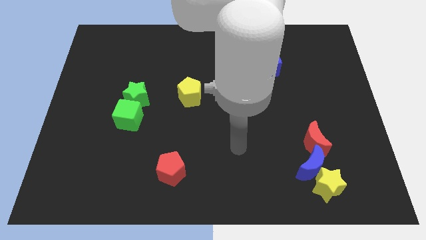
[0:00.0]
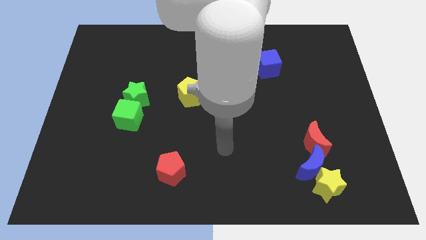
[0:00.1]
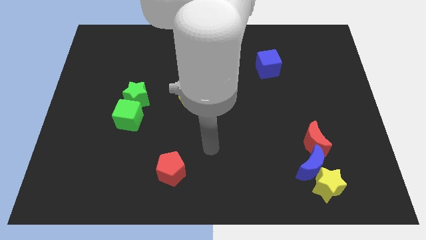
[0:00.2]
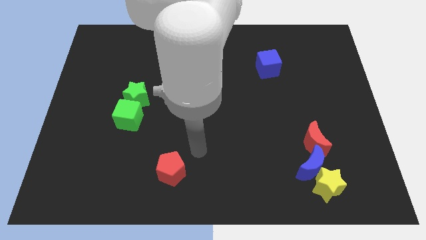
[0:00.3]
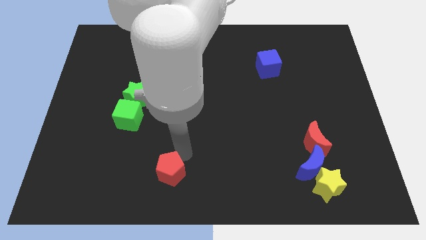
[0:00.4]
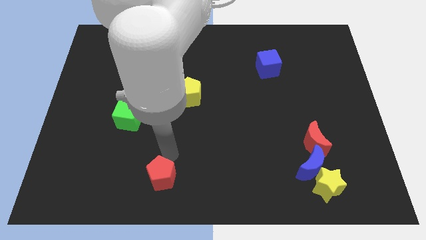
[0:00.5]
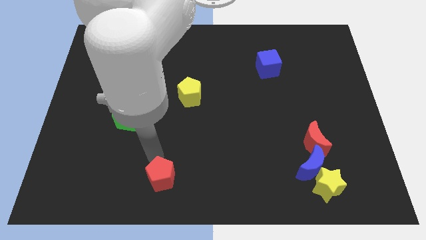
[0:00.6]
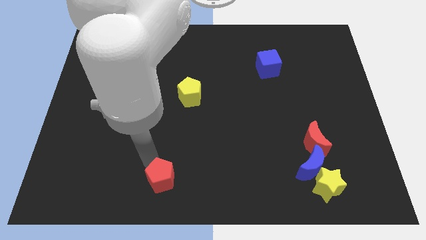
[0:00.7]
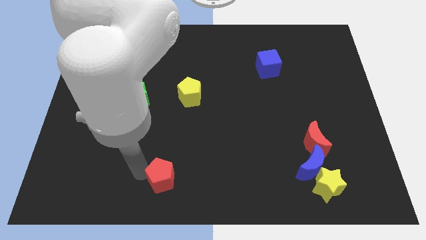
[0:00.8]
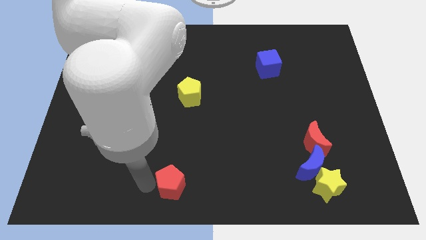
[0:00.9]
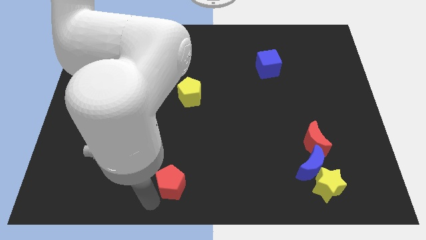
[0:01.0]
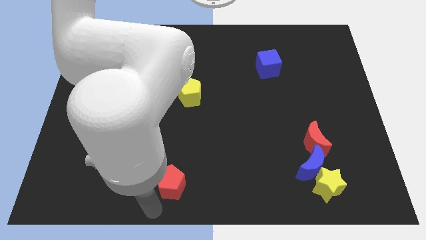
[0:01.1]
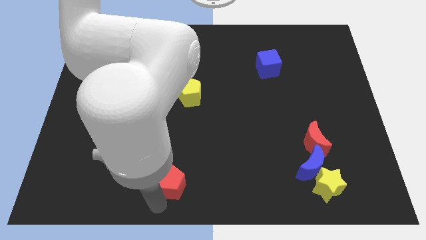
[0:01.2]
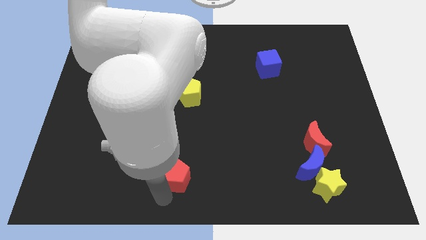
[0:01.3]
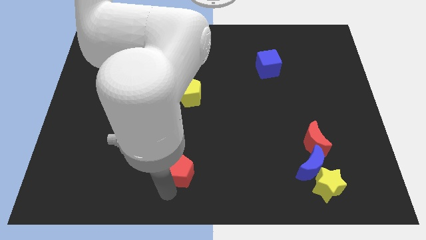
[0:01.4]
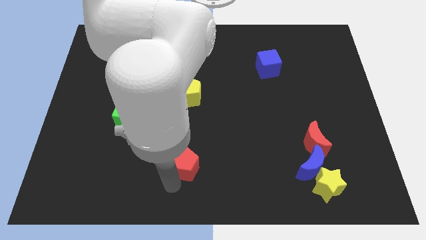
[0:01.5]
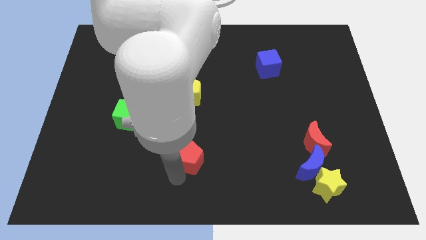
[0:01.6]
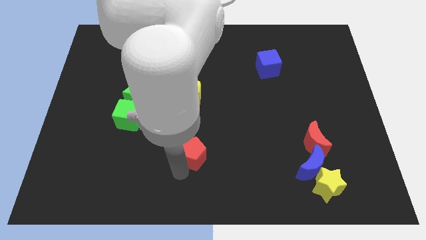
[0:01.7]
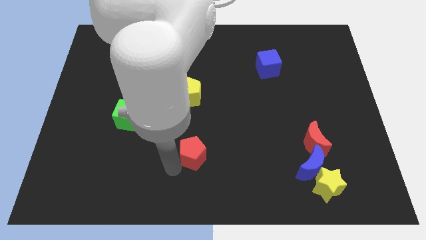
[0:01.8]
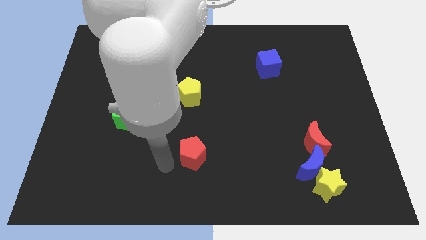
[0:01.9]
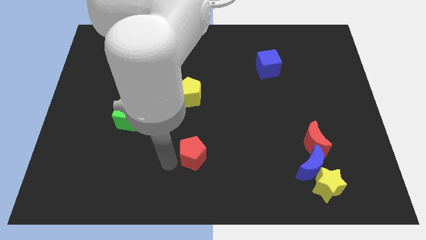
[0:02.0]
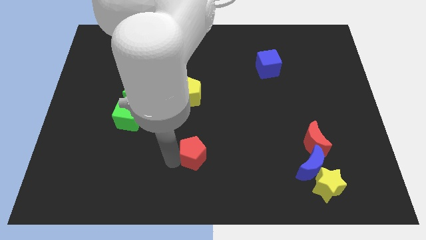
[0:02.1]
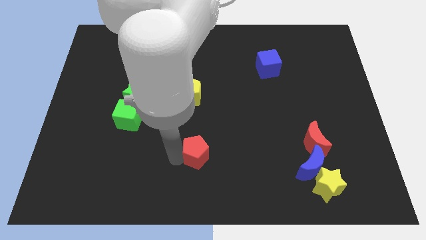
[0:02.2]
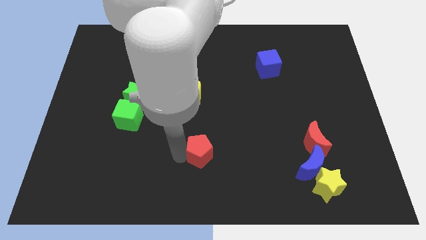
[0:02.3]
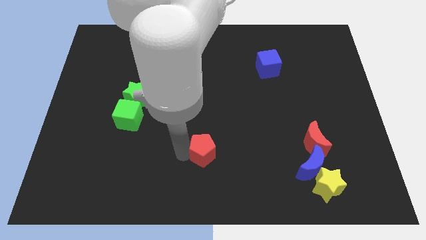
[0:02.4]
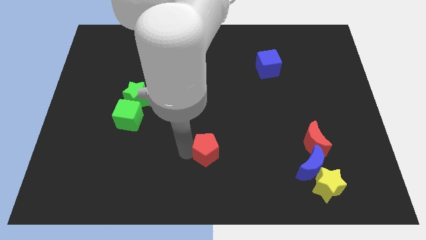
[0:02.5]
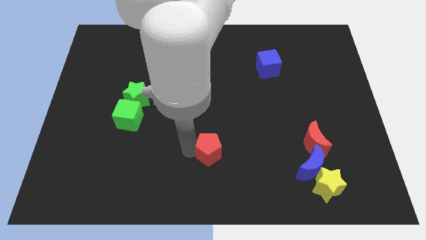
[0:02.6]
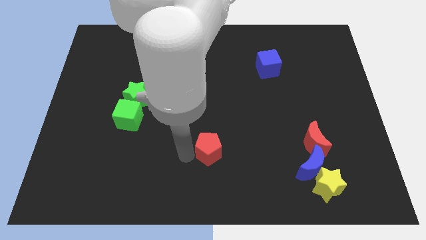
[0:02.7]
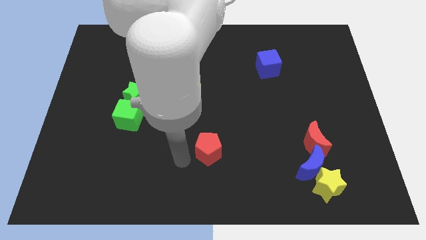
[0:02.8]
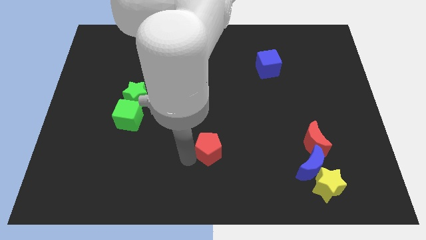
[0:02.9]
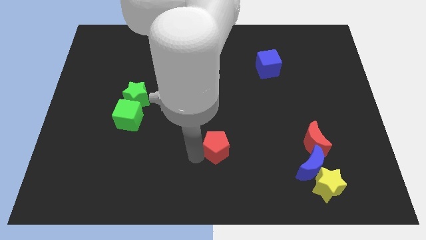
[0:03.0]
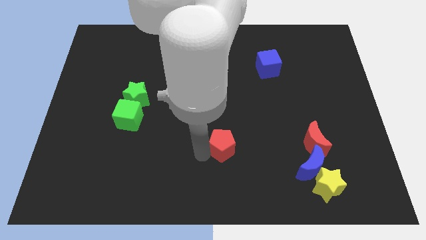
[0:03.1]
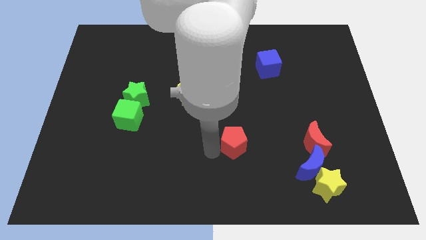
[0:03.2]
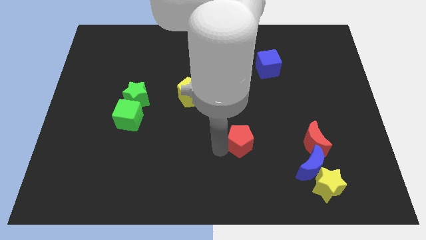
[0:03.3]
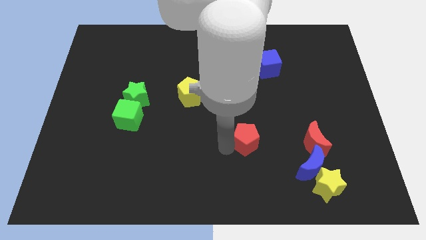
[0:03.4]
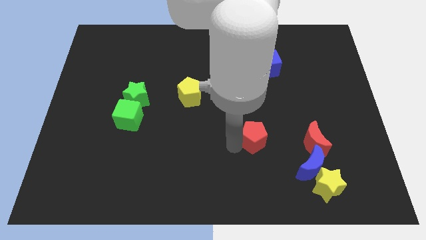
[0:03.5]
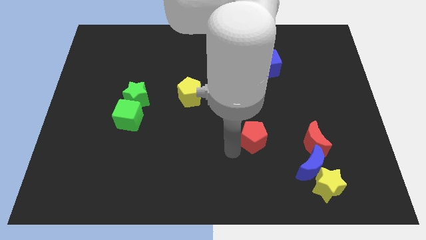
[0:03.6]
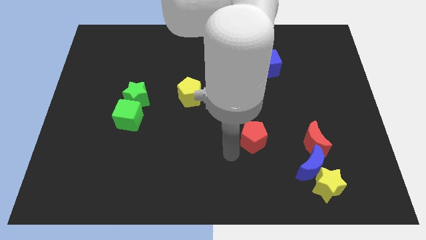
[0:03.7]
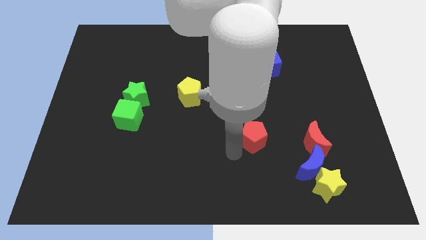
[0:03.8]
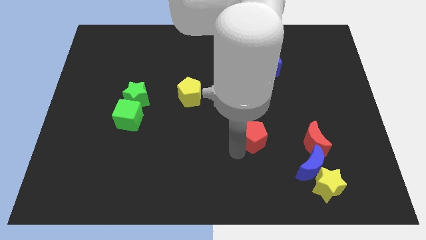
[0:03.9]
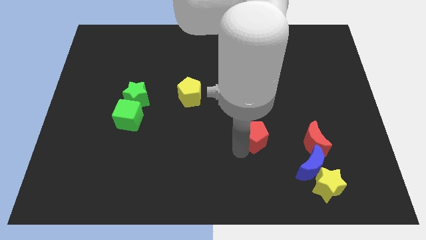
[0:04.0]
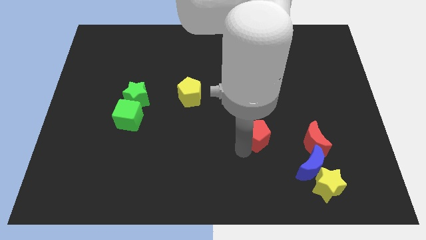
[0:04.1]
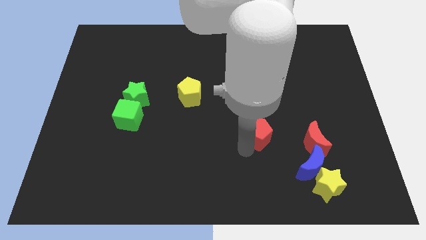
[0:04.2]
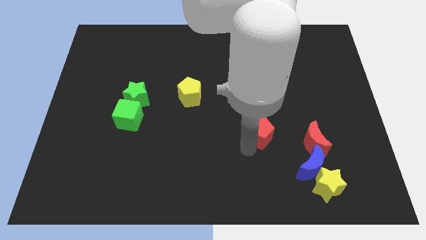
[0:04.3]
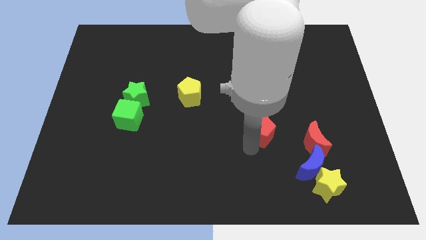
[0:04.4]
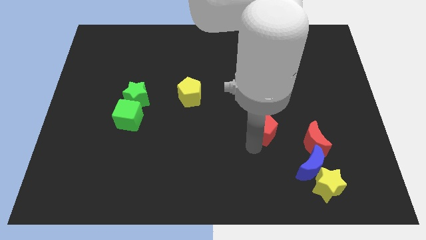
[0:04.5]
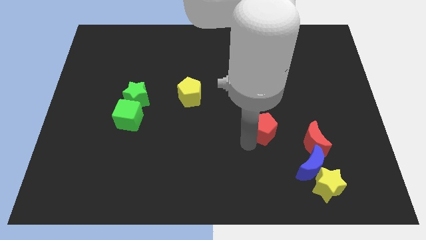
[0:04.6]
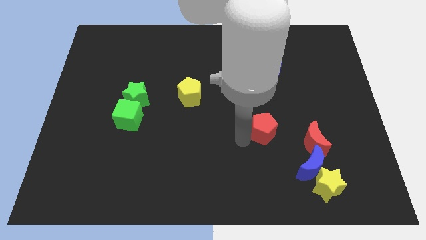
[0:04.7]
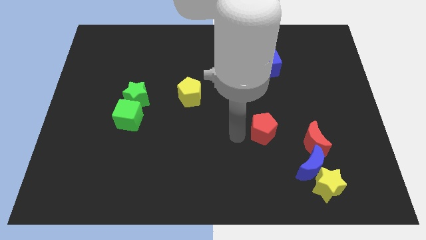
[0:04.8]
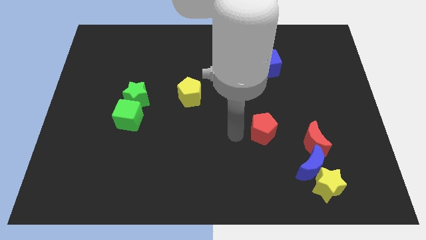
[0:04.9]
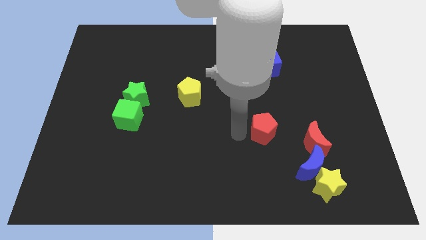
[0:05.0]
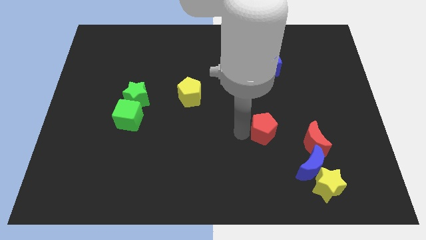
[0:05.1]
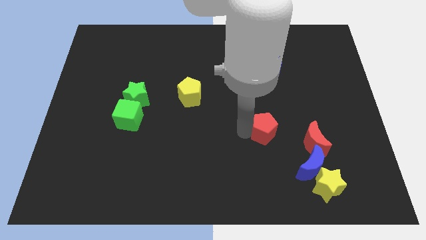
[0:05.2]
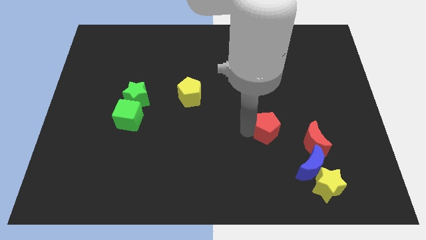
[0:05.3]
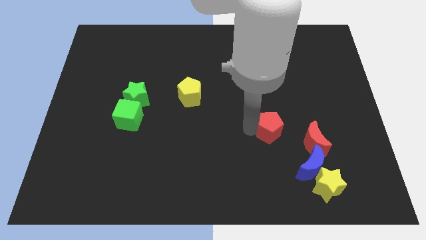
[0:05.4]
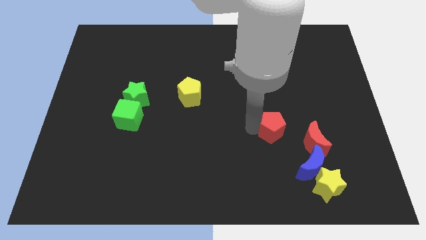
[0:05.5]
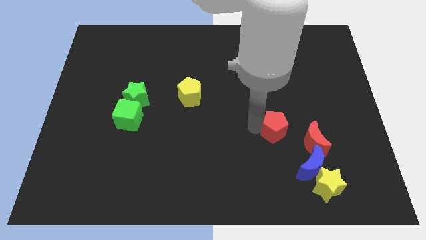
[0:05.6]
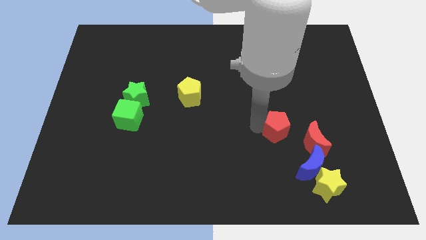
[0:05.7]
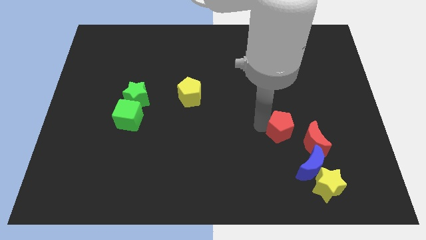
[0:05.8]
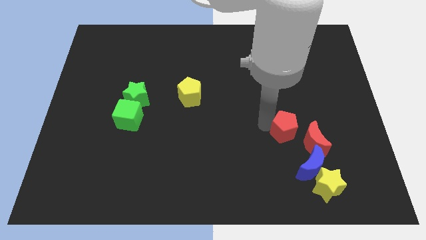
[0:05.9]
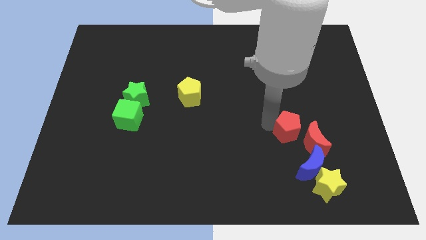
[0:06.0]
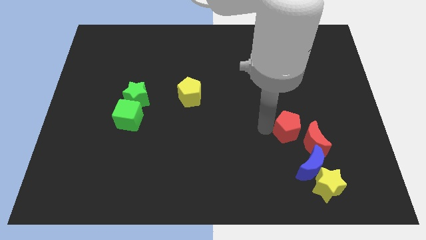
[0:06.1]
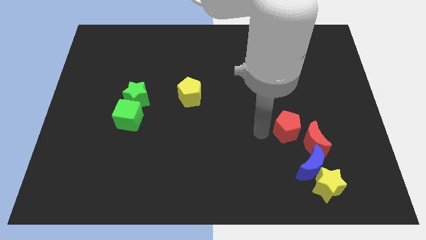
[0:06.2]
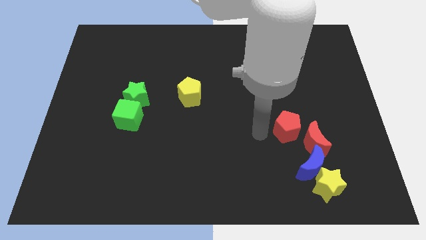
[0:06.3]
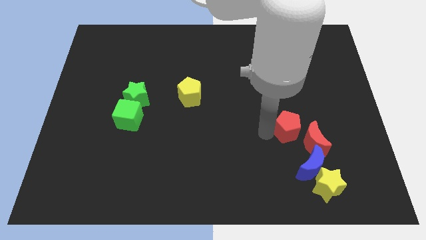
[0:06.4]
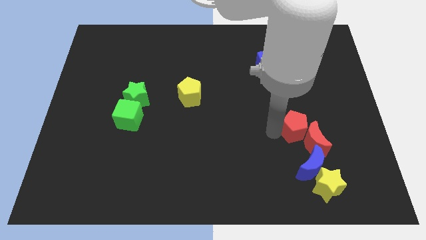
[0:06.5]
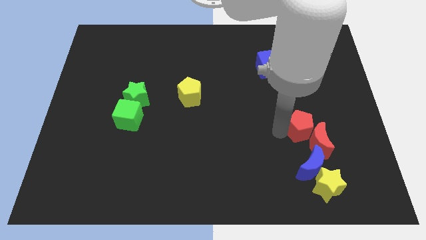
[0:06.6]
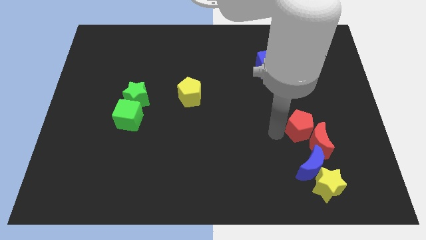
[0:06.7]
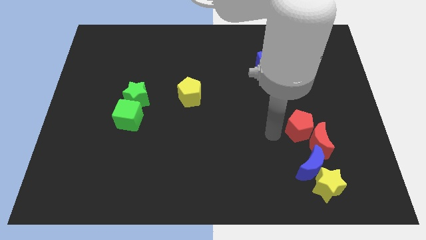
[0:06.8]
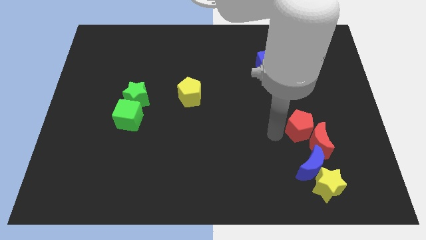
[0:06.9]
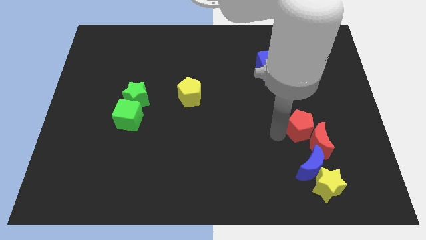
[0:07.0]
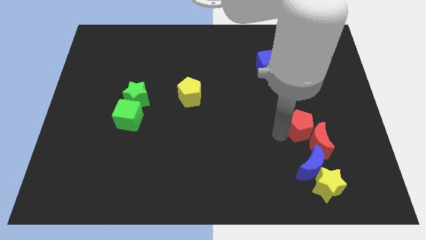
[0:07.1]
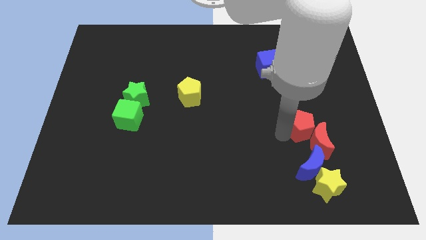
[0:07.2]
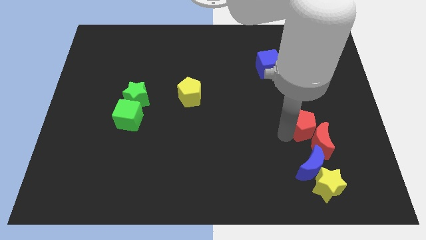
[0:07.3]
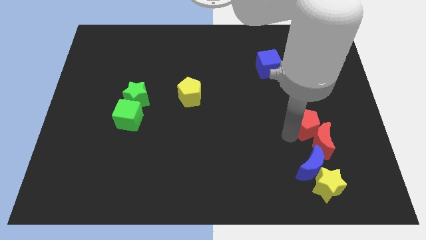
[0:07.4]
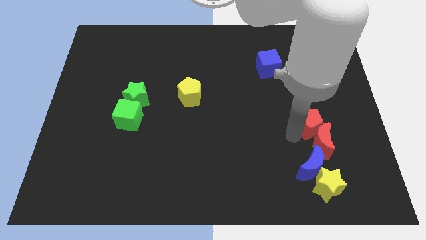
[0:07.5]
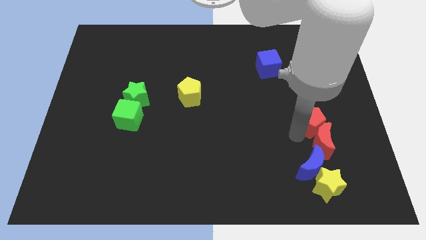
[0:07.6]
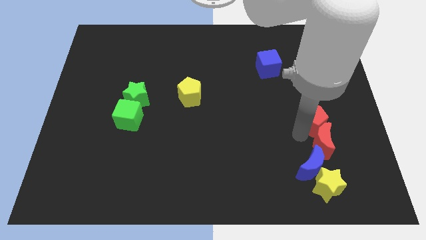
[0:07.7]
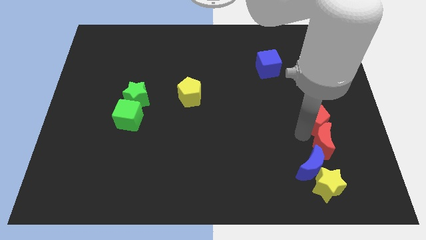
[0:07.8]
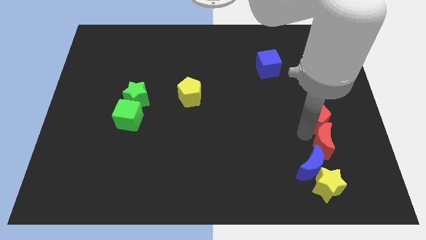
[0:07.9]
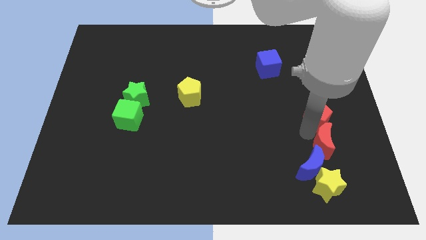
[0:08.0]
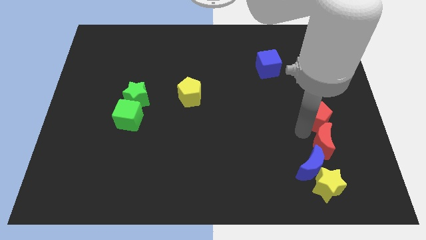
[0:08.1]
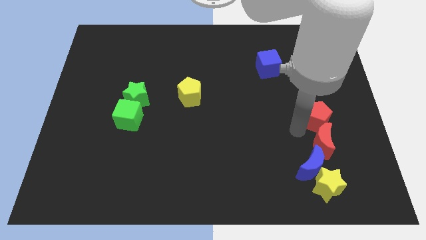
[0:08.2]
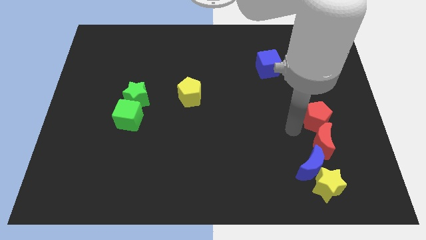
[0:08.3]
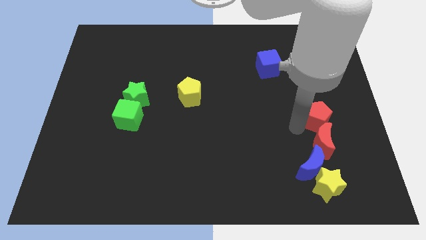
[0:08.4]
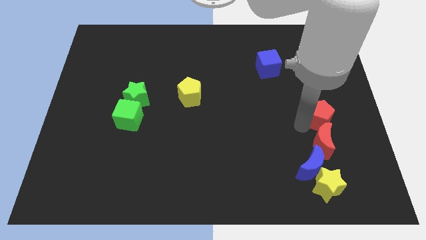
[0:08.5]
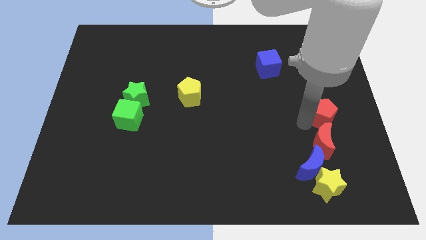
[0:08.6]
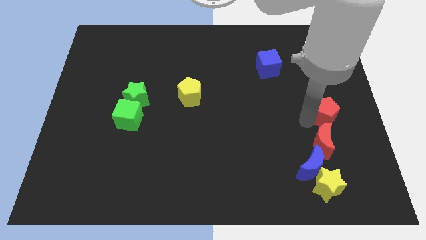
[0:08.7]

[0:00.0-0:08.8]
put the red pentagon to the center right
